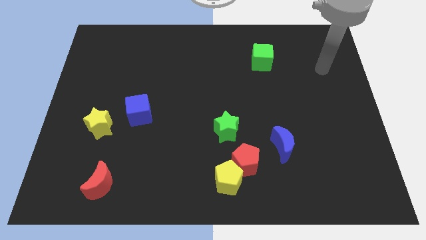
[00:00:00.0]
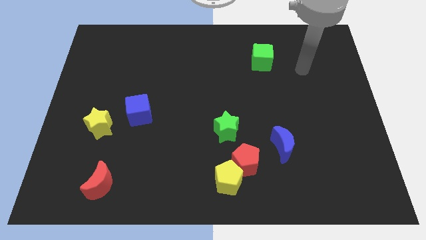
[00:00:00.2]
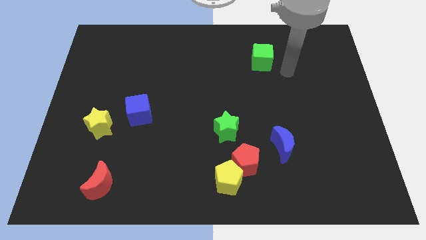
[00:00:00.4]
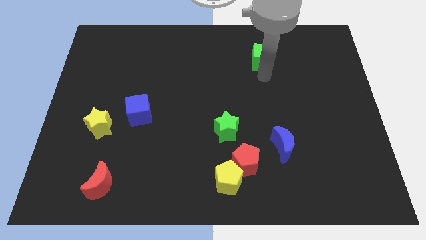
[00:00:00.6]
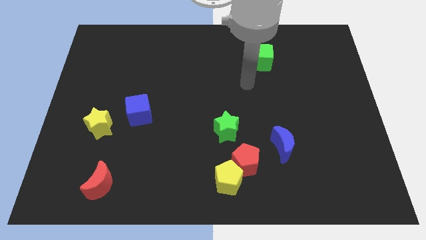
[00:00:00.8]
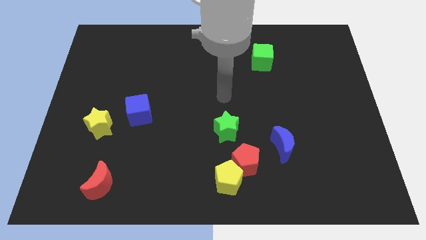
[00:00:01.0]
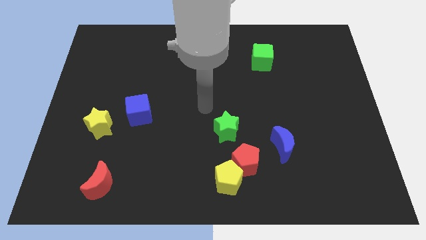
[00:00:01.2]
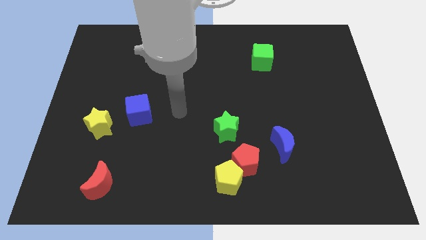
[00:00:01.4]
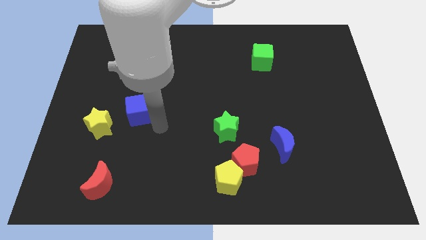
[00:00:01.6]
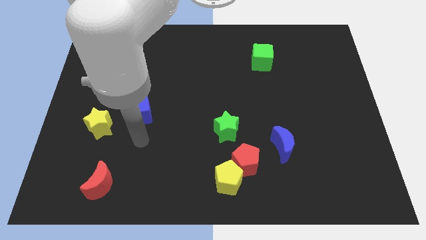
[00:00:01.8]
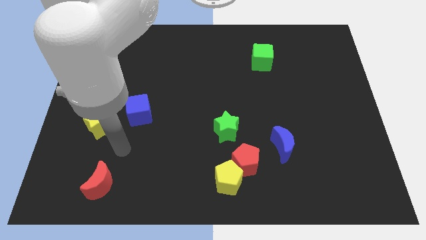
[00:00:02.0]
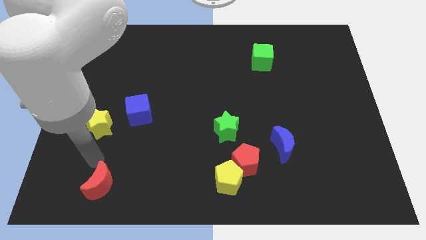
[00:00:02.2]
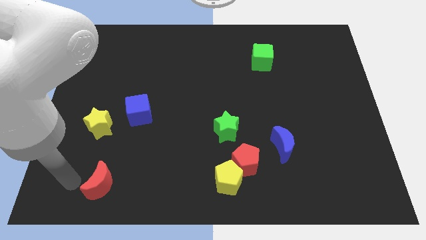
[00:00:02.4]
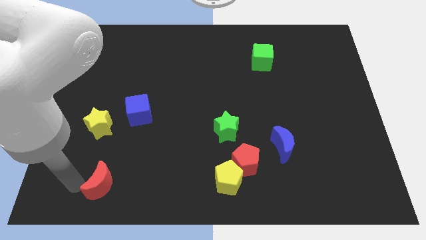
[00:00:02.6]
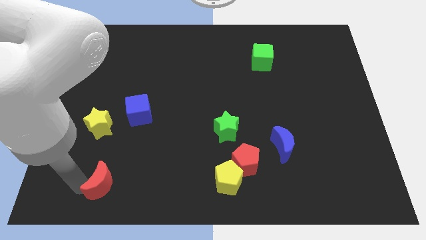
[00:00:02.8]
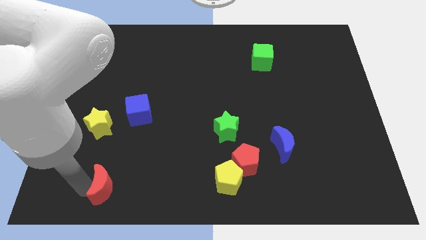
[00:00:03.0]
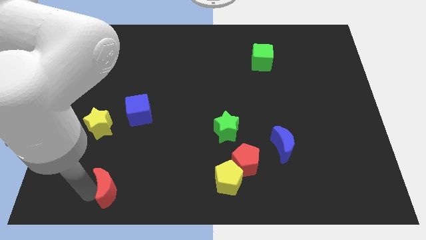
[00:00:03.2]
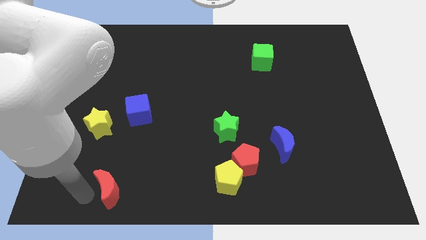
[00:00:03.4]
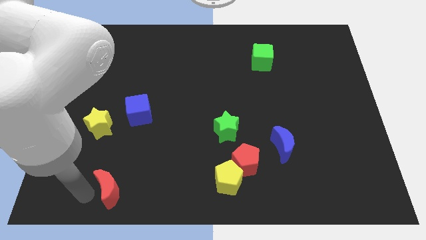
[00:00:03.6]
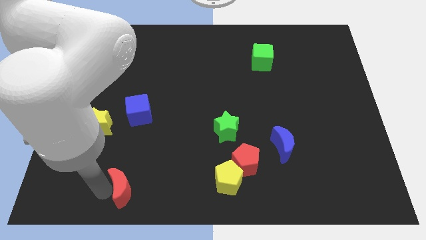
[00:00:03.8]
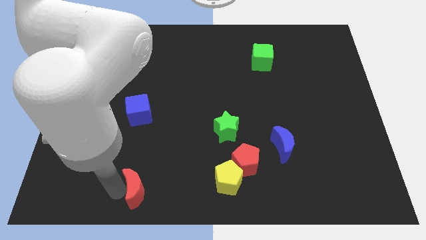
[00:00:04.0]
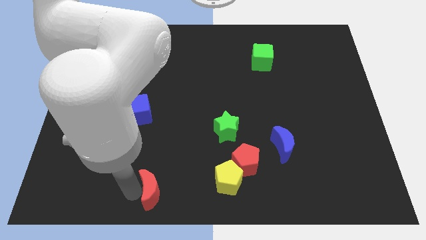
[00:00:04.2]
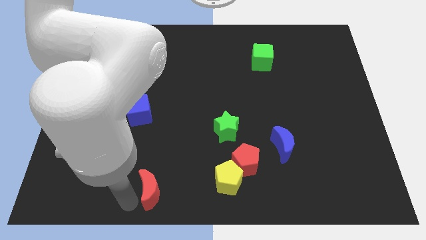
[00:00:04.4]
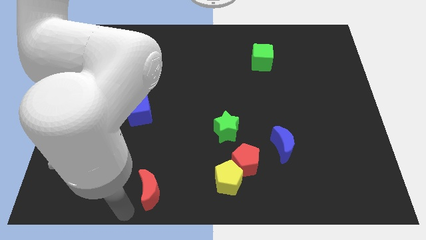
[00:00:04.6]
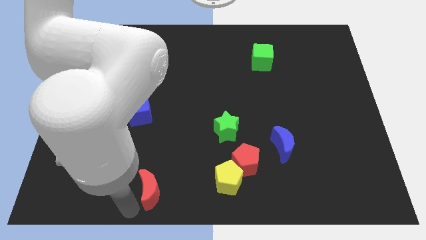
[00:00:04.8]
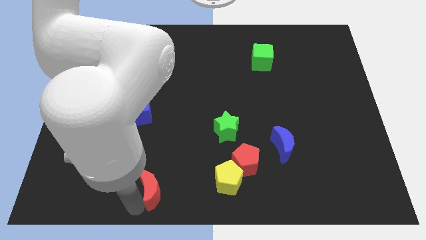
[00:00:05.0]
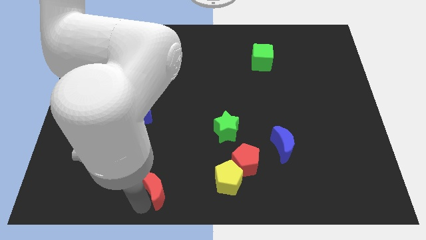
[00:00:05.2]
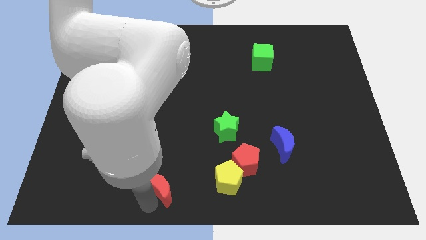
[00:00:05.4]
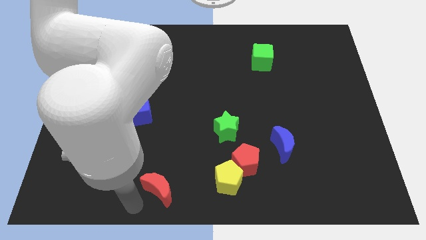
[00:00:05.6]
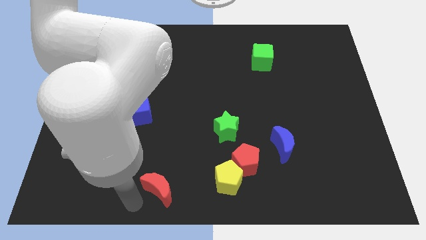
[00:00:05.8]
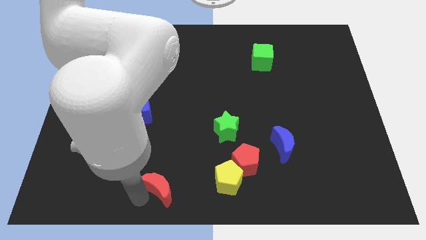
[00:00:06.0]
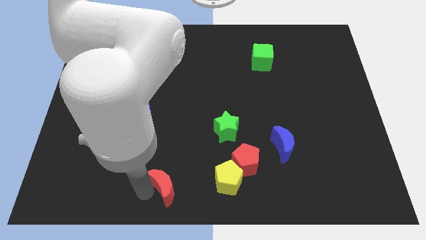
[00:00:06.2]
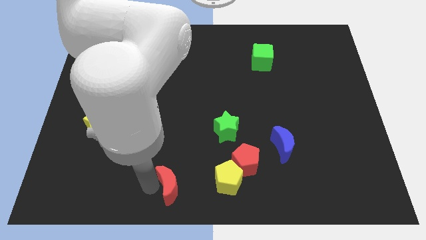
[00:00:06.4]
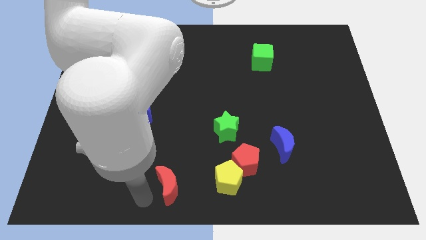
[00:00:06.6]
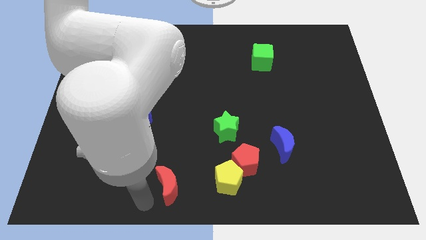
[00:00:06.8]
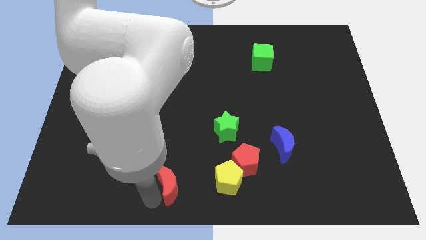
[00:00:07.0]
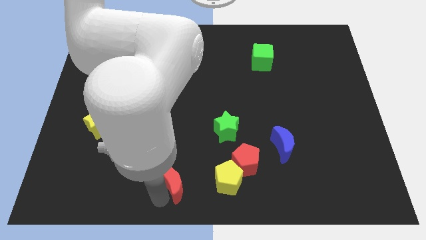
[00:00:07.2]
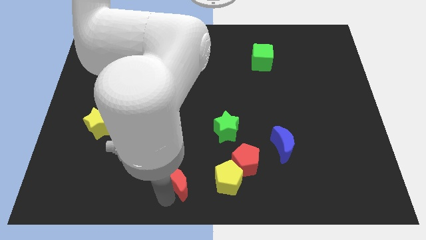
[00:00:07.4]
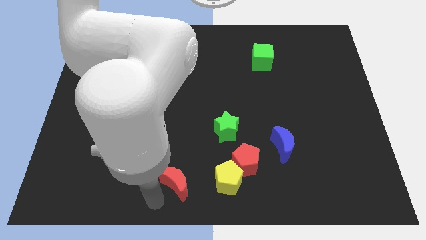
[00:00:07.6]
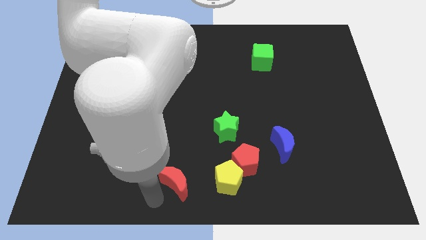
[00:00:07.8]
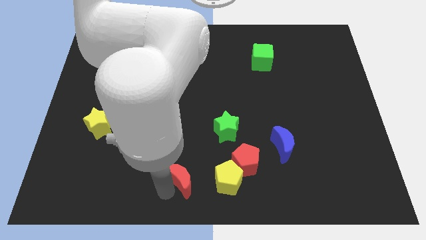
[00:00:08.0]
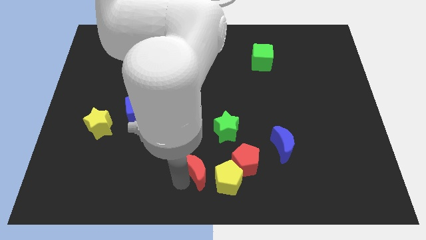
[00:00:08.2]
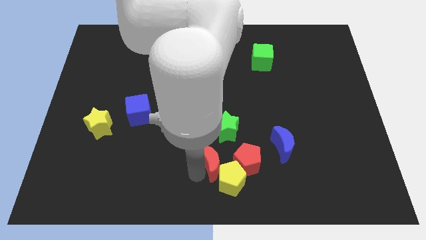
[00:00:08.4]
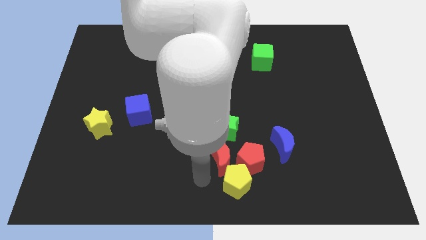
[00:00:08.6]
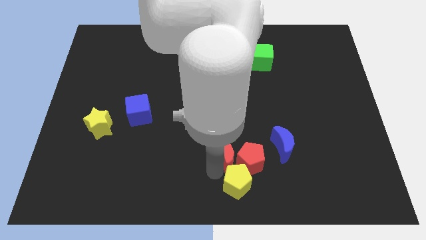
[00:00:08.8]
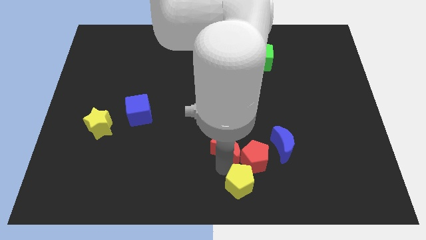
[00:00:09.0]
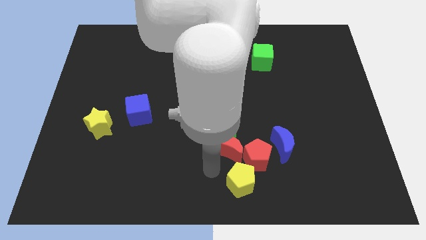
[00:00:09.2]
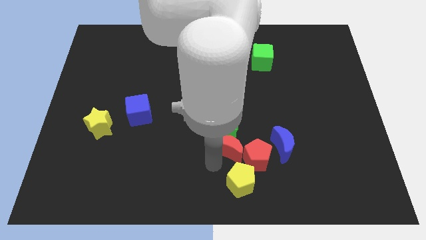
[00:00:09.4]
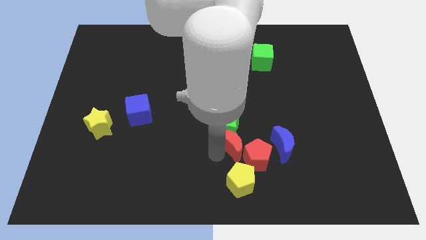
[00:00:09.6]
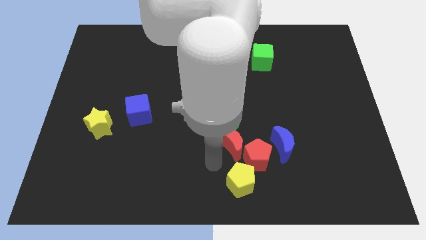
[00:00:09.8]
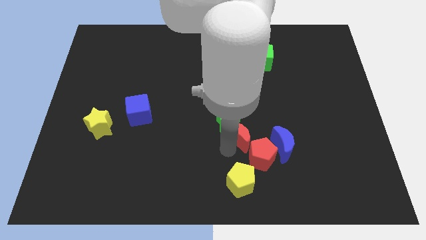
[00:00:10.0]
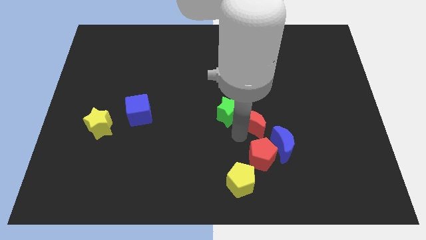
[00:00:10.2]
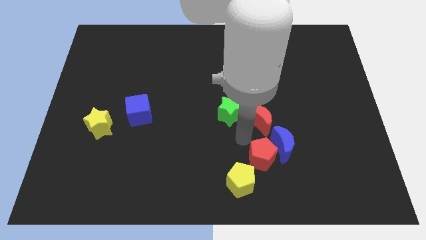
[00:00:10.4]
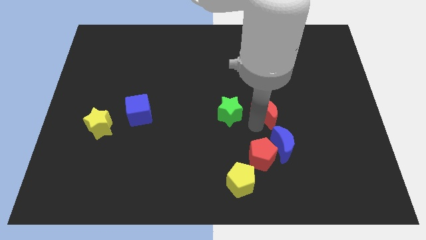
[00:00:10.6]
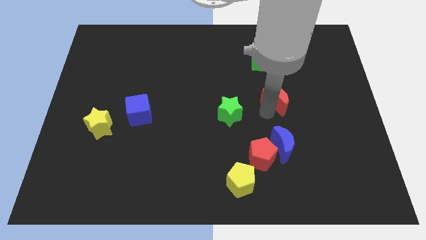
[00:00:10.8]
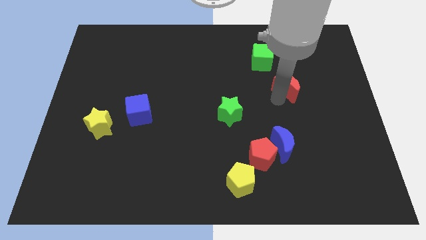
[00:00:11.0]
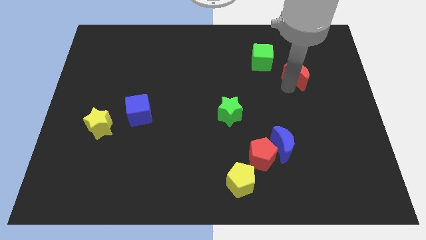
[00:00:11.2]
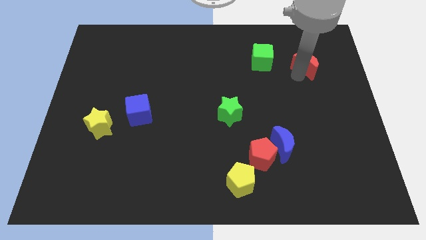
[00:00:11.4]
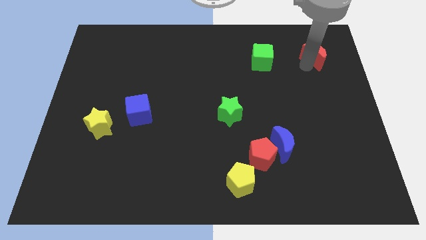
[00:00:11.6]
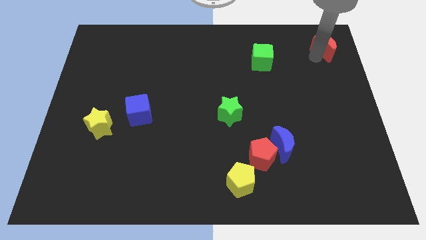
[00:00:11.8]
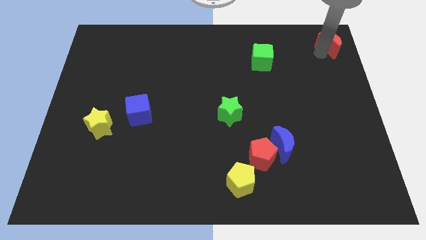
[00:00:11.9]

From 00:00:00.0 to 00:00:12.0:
slide the red moon to the top right

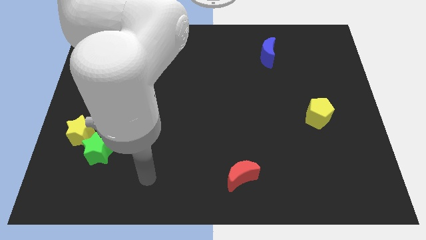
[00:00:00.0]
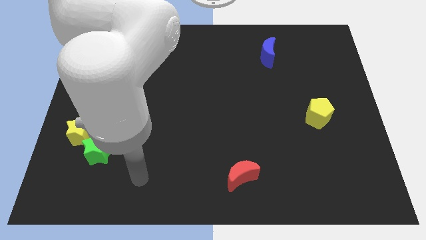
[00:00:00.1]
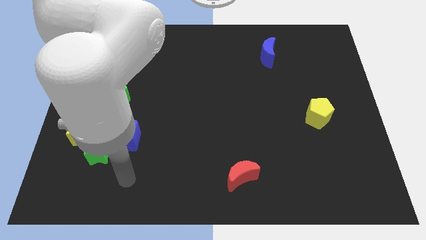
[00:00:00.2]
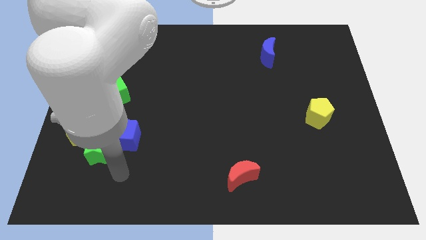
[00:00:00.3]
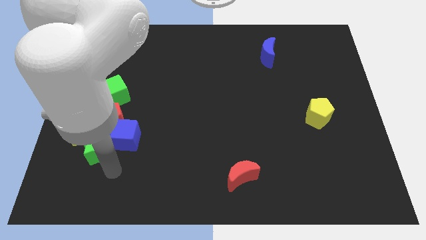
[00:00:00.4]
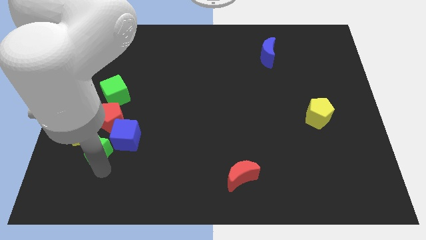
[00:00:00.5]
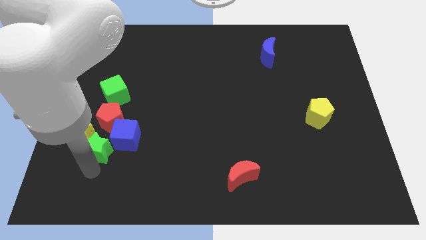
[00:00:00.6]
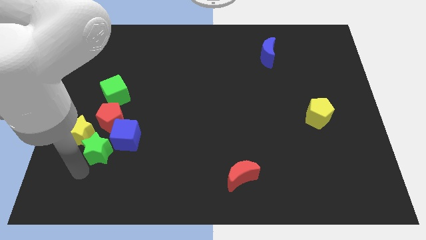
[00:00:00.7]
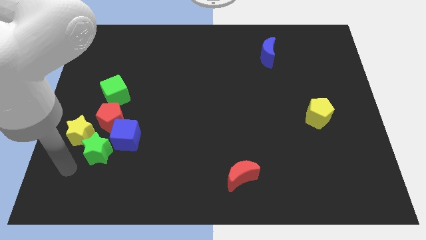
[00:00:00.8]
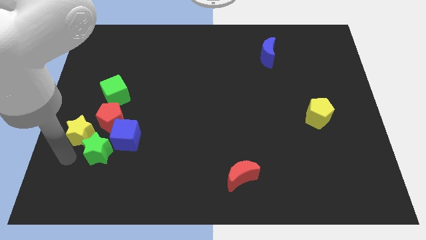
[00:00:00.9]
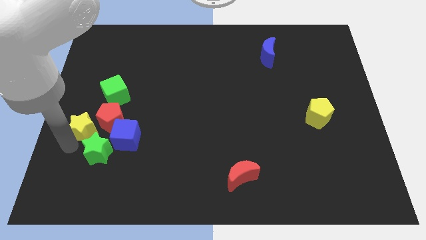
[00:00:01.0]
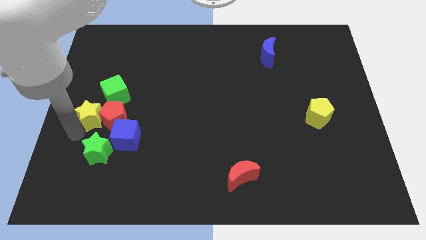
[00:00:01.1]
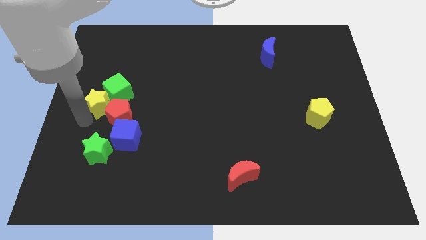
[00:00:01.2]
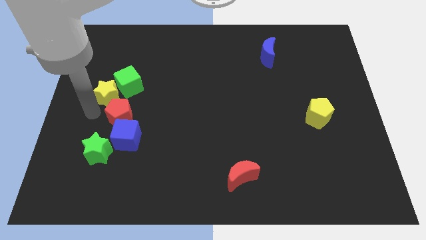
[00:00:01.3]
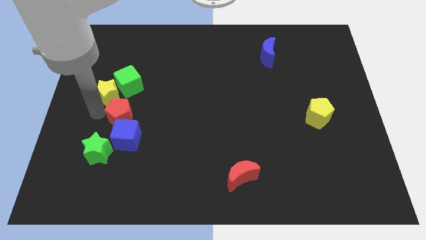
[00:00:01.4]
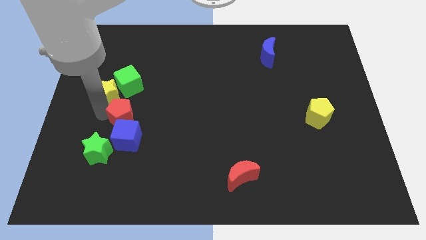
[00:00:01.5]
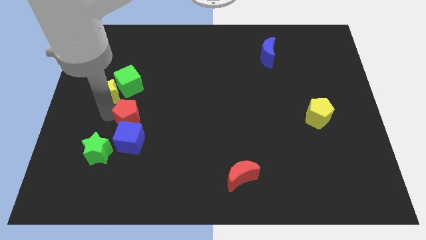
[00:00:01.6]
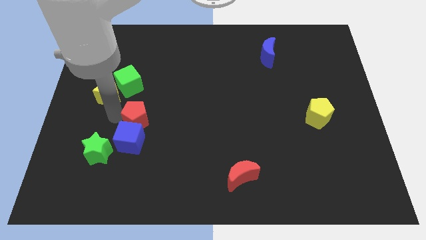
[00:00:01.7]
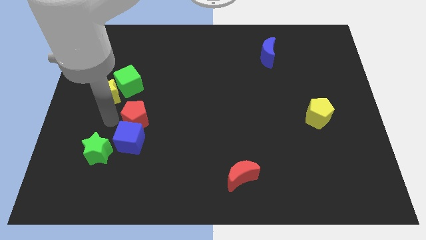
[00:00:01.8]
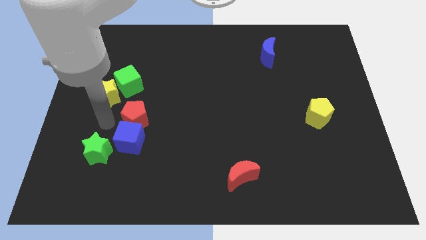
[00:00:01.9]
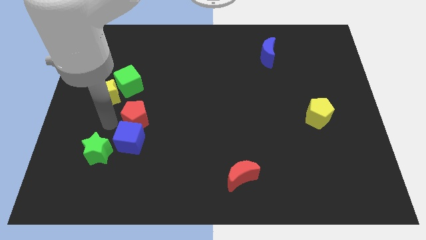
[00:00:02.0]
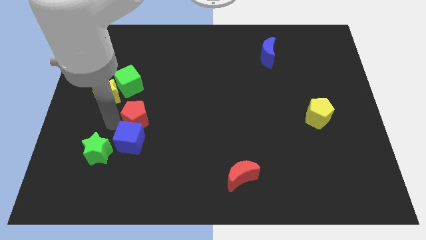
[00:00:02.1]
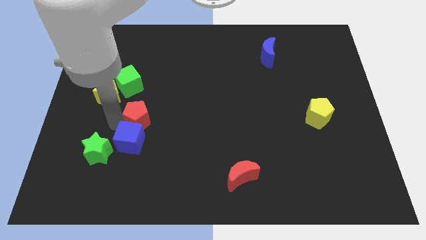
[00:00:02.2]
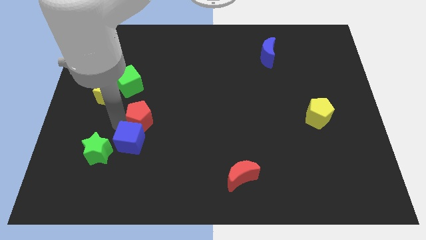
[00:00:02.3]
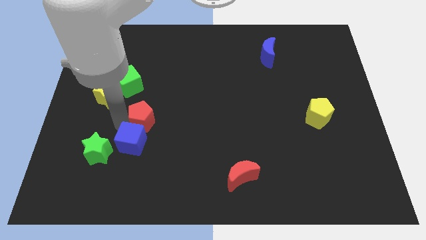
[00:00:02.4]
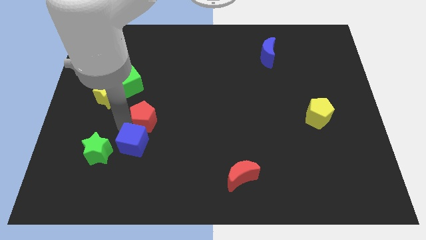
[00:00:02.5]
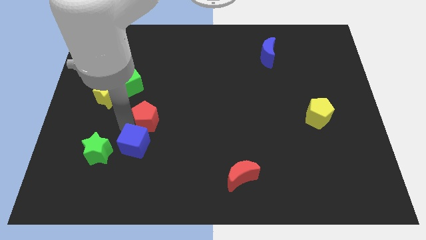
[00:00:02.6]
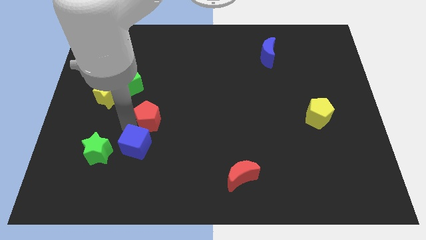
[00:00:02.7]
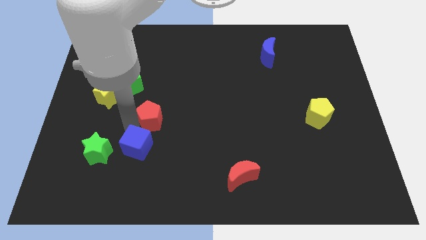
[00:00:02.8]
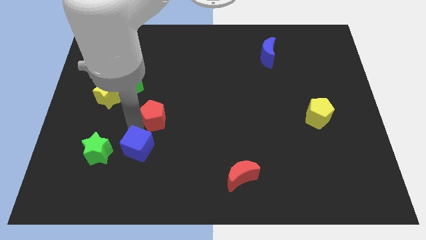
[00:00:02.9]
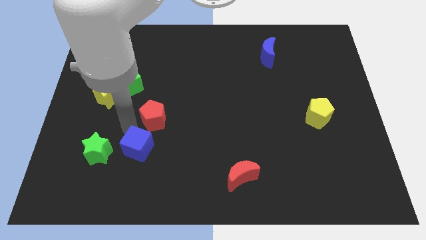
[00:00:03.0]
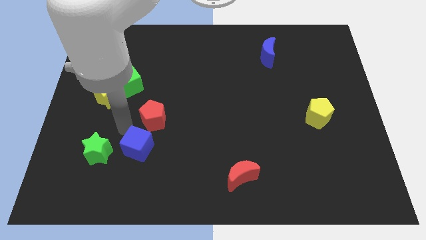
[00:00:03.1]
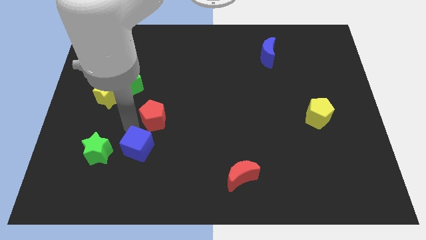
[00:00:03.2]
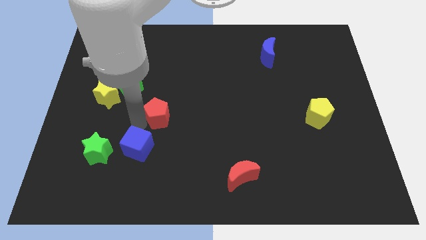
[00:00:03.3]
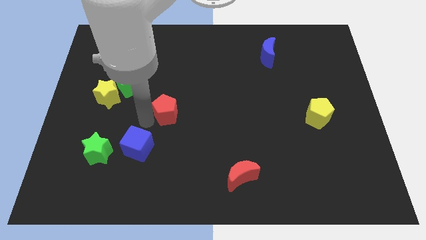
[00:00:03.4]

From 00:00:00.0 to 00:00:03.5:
push the red pentagon to the center
